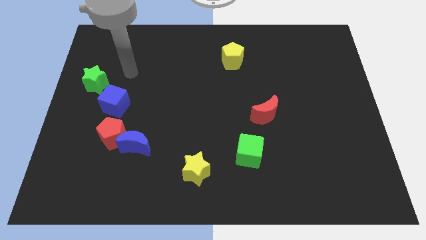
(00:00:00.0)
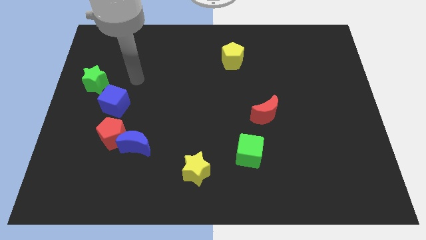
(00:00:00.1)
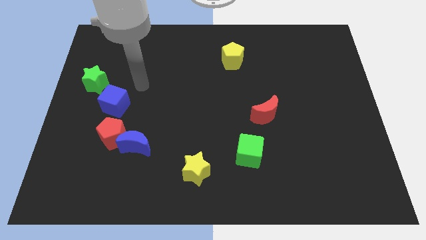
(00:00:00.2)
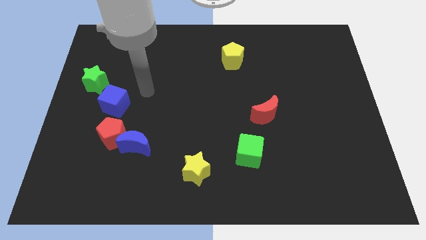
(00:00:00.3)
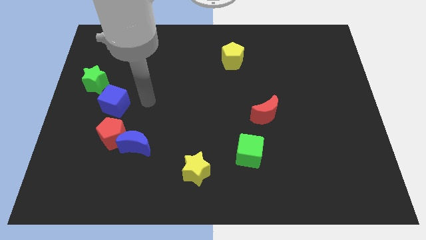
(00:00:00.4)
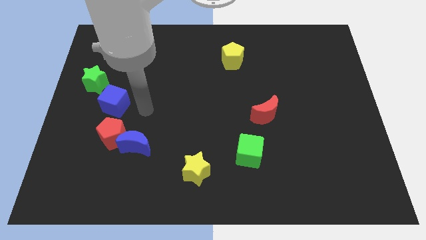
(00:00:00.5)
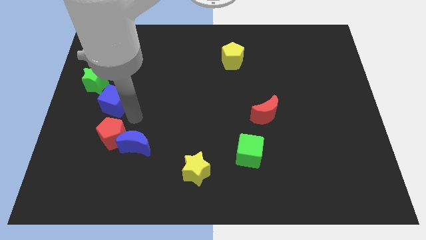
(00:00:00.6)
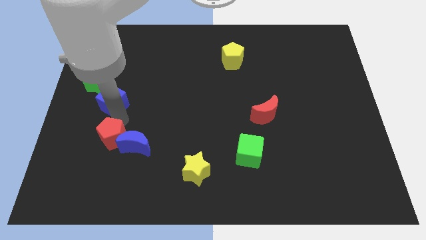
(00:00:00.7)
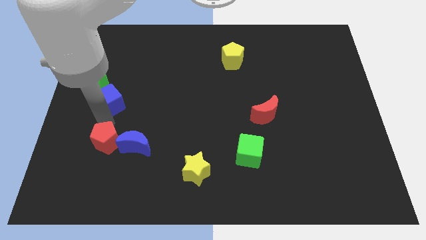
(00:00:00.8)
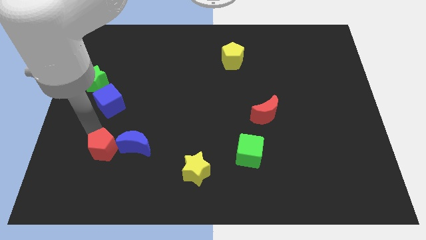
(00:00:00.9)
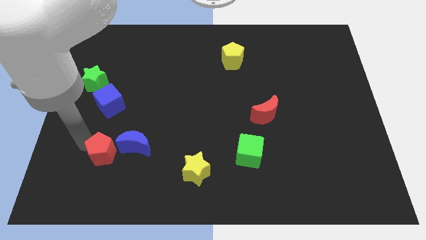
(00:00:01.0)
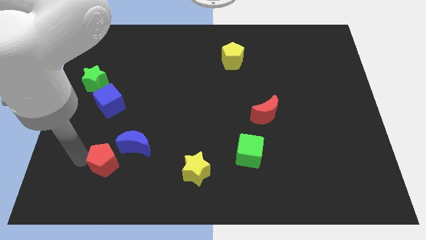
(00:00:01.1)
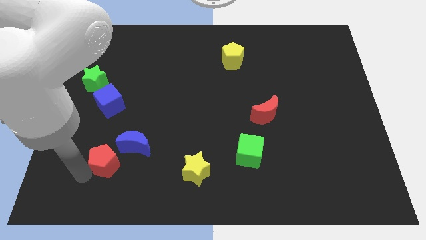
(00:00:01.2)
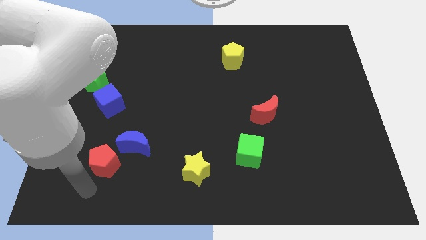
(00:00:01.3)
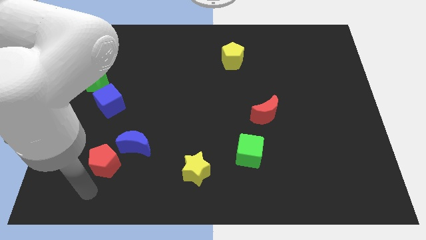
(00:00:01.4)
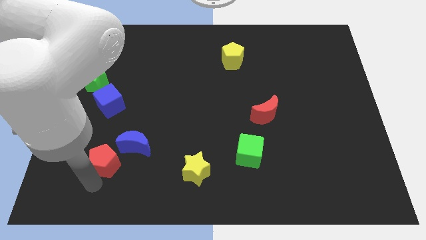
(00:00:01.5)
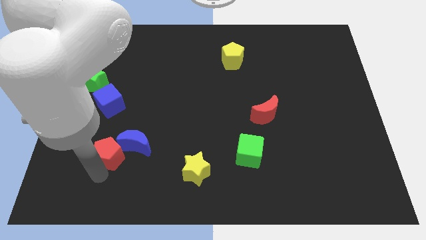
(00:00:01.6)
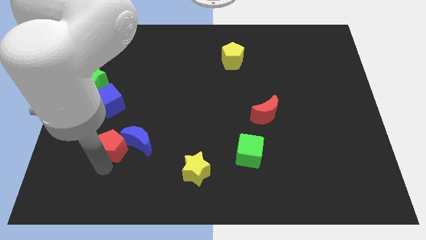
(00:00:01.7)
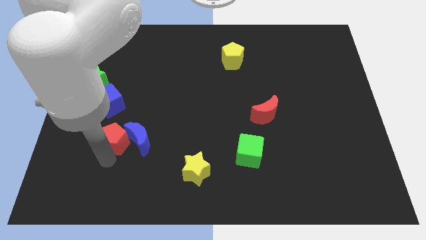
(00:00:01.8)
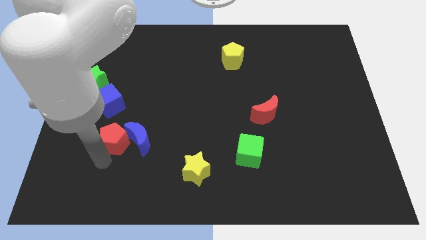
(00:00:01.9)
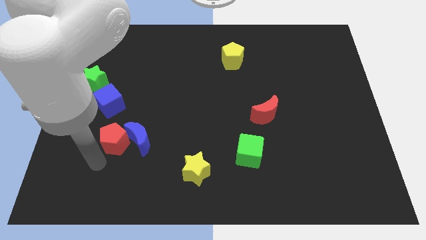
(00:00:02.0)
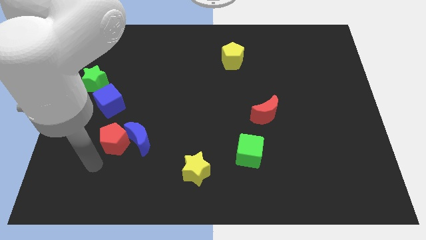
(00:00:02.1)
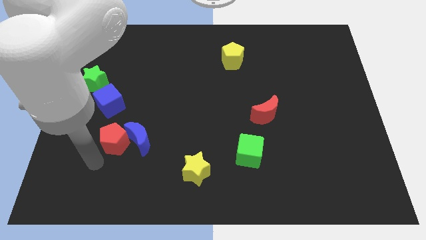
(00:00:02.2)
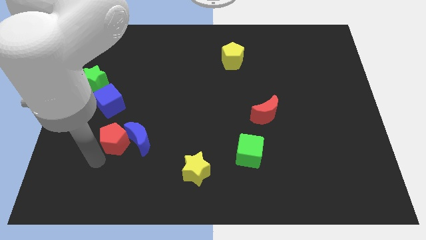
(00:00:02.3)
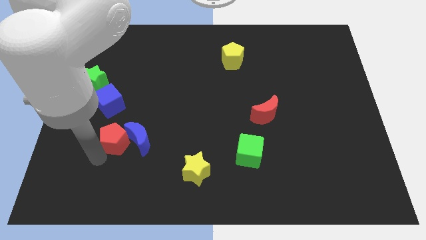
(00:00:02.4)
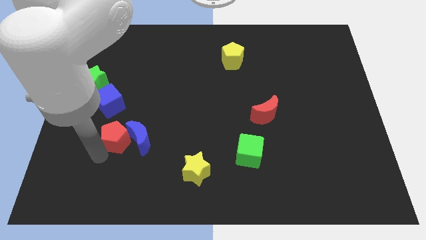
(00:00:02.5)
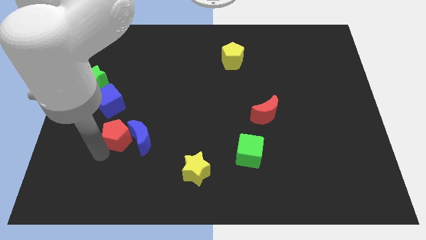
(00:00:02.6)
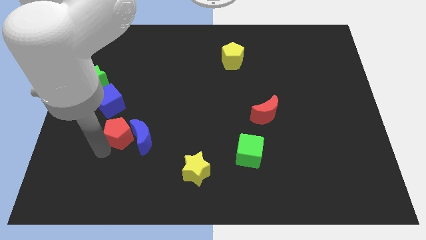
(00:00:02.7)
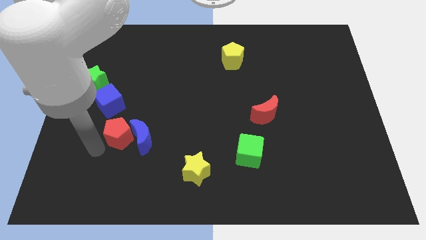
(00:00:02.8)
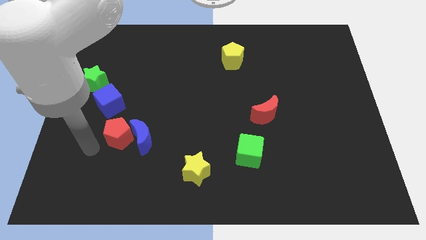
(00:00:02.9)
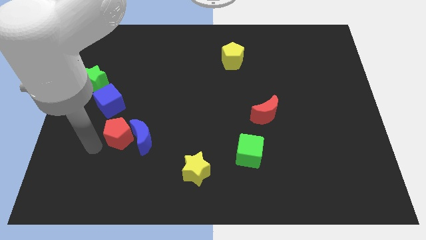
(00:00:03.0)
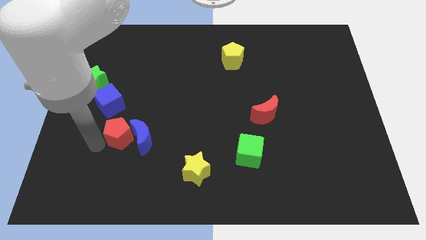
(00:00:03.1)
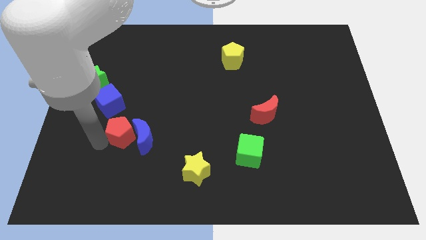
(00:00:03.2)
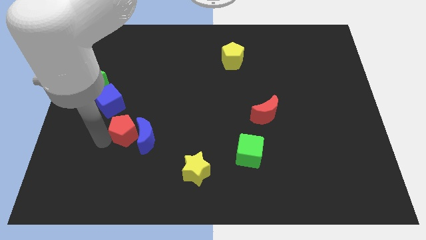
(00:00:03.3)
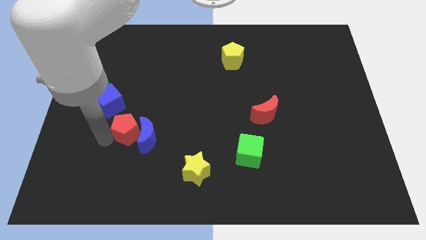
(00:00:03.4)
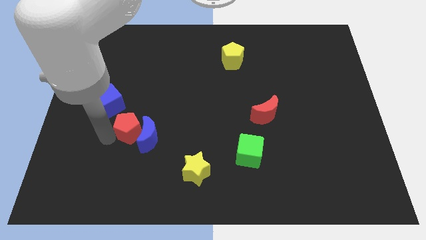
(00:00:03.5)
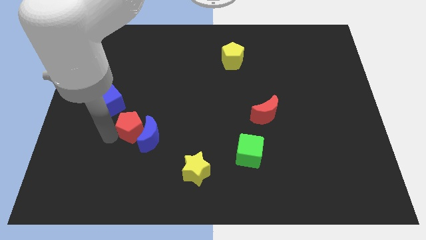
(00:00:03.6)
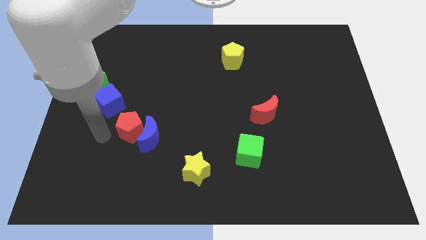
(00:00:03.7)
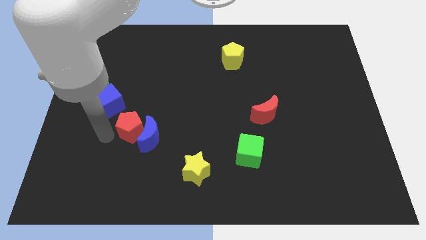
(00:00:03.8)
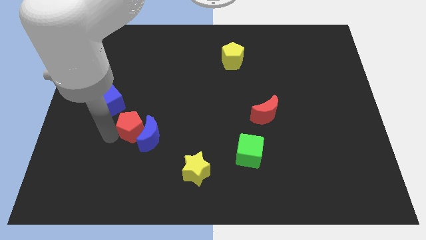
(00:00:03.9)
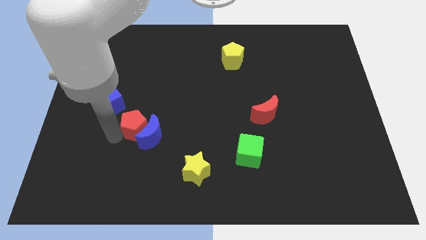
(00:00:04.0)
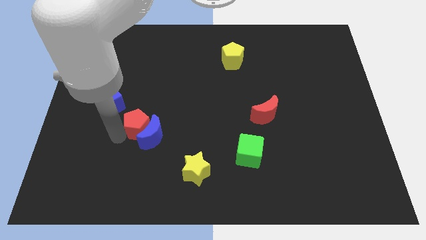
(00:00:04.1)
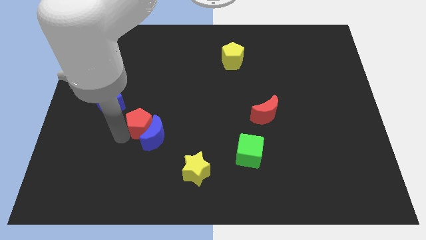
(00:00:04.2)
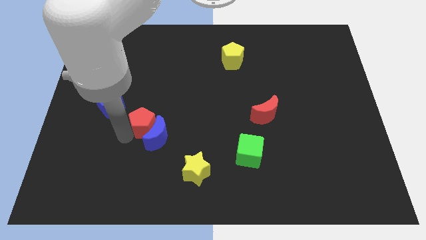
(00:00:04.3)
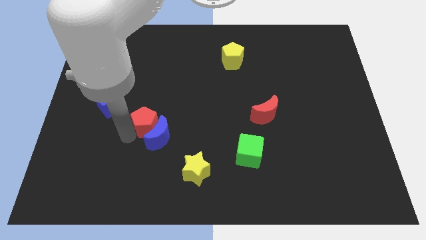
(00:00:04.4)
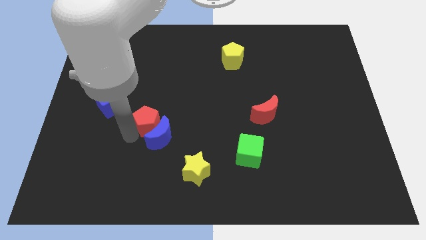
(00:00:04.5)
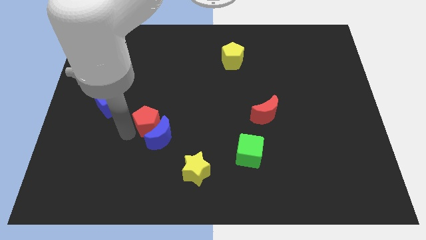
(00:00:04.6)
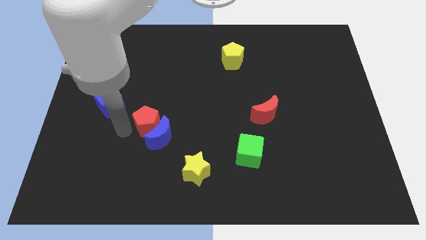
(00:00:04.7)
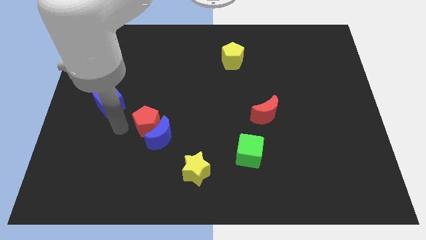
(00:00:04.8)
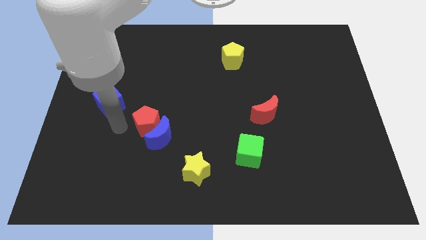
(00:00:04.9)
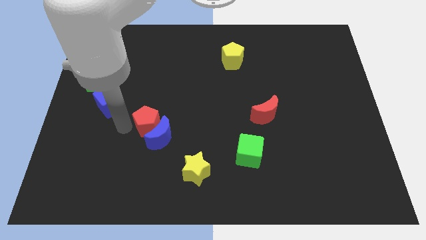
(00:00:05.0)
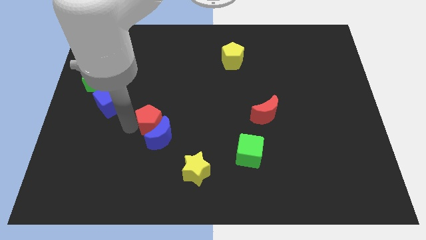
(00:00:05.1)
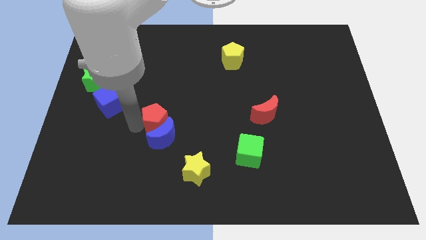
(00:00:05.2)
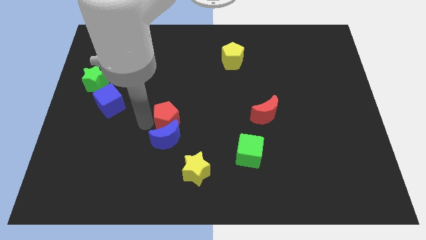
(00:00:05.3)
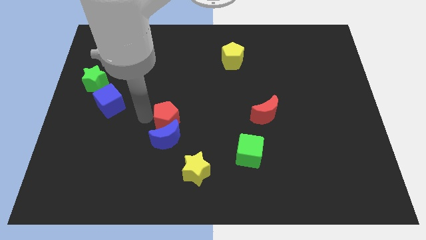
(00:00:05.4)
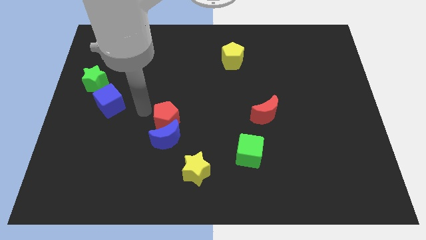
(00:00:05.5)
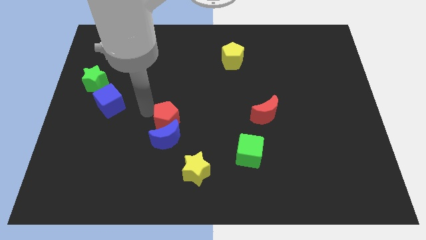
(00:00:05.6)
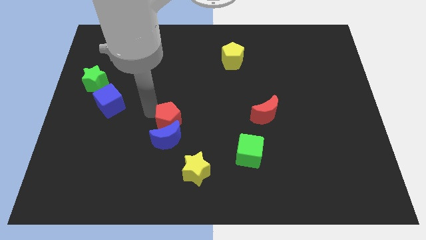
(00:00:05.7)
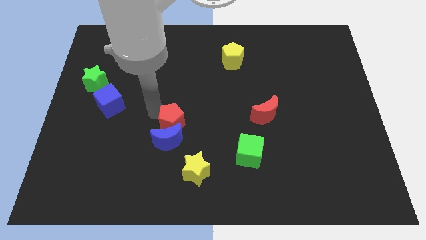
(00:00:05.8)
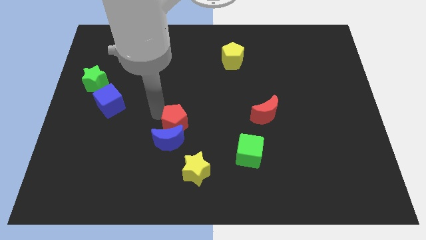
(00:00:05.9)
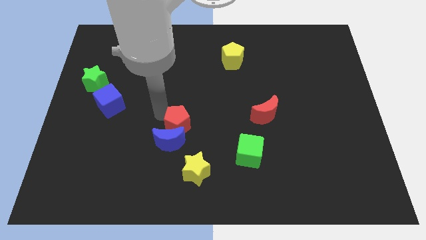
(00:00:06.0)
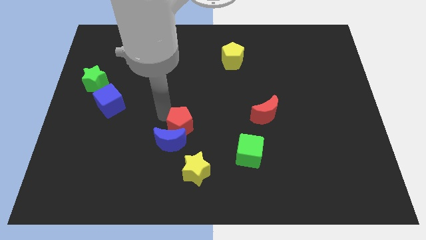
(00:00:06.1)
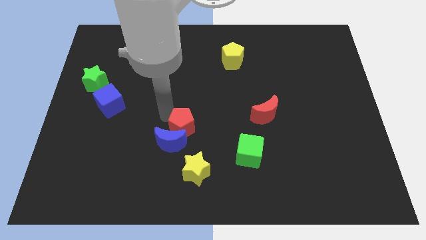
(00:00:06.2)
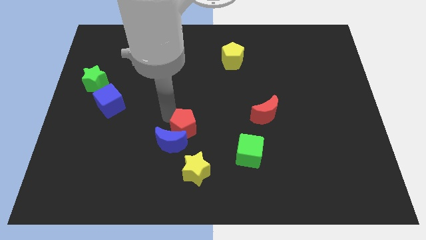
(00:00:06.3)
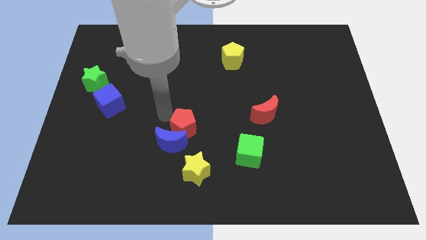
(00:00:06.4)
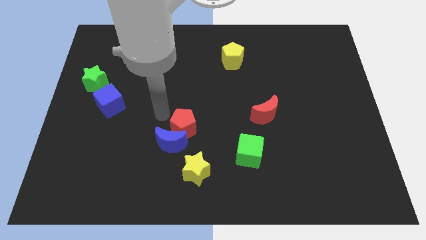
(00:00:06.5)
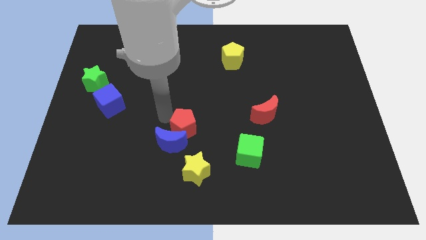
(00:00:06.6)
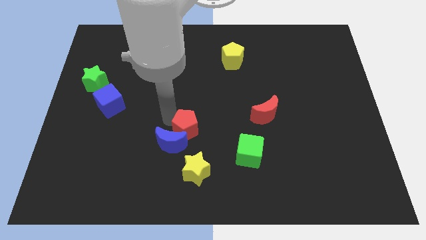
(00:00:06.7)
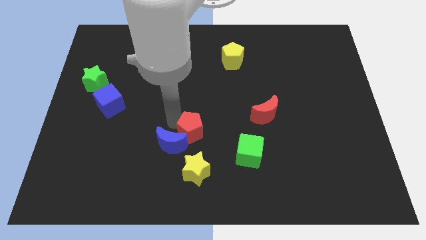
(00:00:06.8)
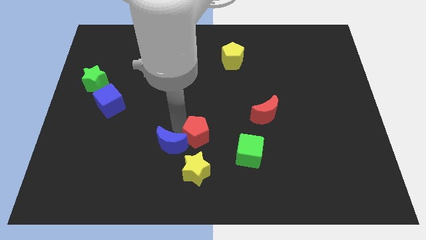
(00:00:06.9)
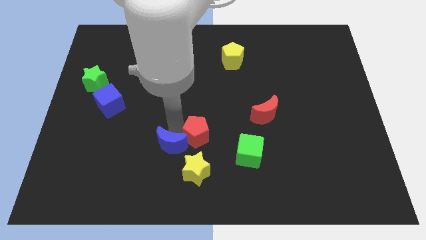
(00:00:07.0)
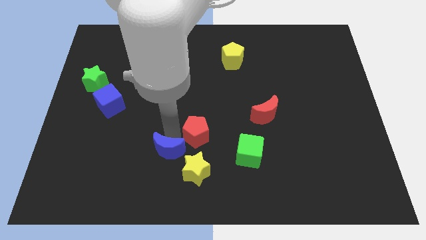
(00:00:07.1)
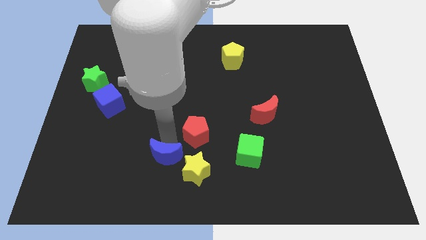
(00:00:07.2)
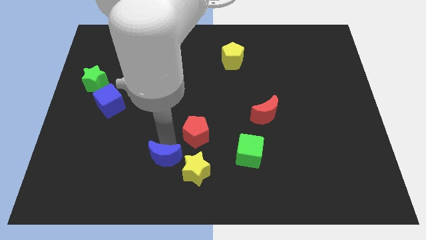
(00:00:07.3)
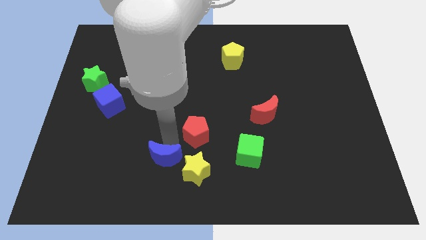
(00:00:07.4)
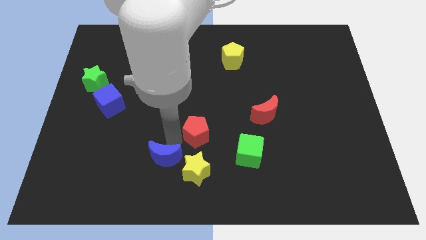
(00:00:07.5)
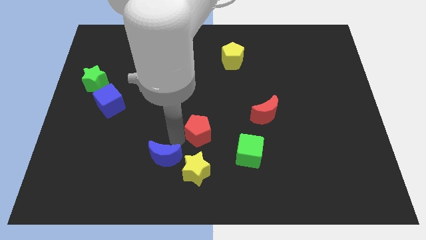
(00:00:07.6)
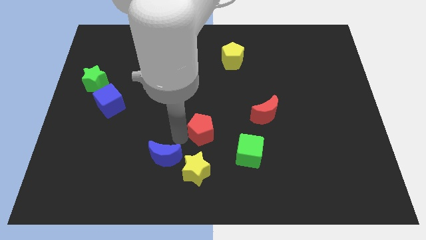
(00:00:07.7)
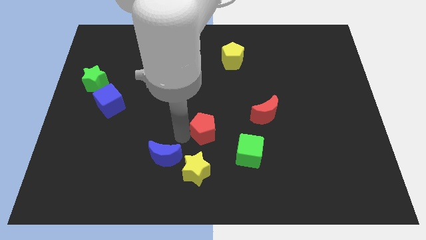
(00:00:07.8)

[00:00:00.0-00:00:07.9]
move the red pentagon right

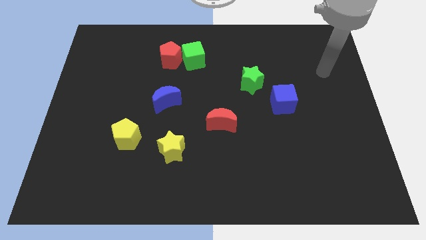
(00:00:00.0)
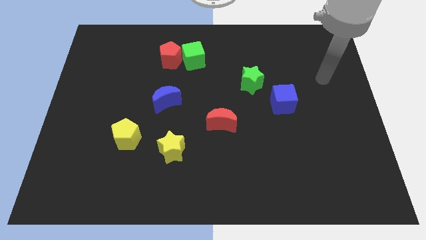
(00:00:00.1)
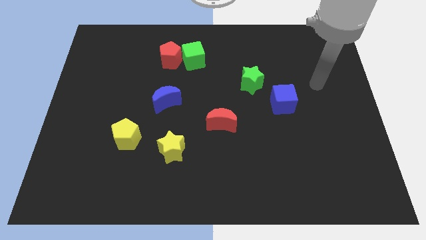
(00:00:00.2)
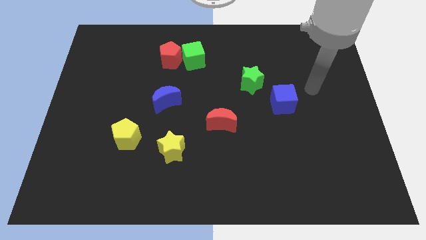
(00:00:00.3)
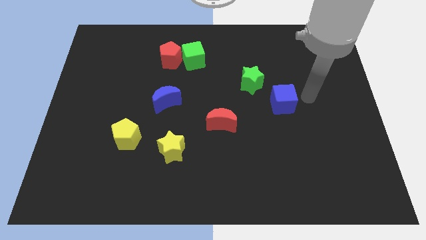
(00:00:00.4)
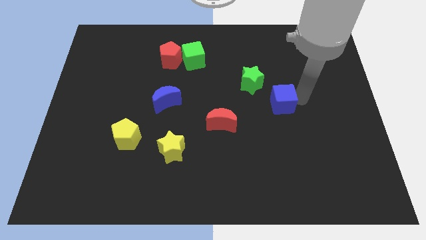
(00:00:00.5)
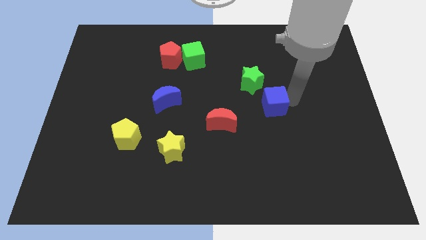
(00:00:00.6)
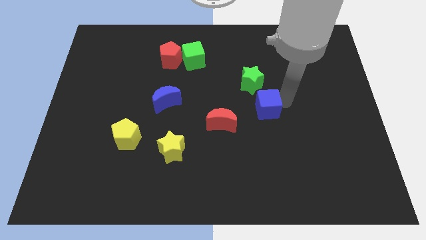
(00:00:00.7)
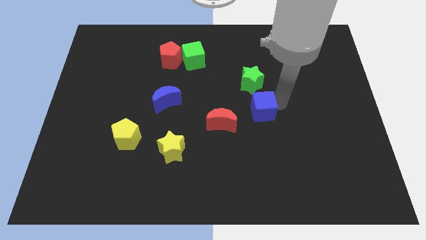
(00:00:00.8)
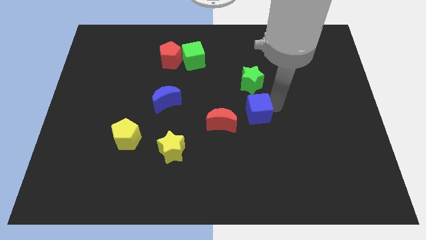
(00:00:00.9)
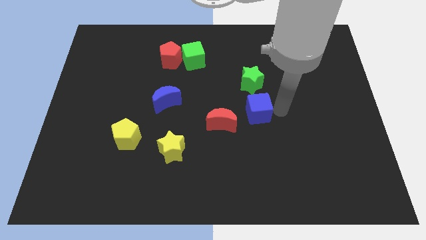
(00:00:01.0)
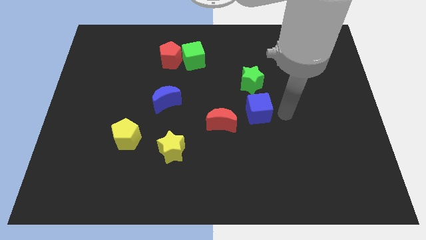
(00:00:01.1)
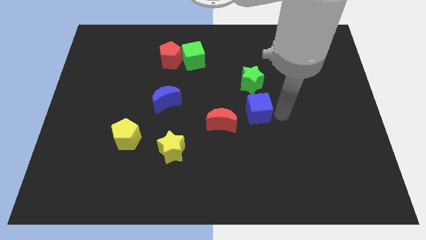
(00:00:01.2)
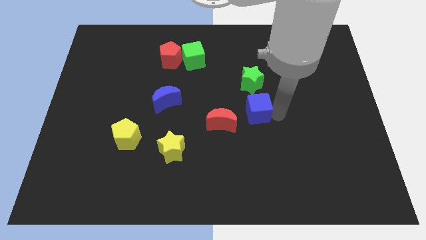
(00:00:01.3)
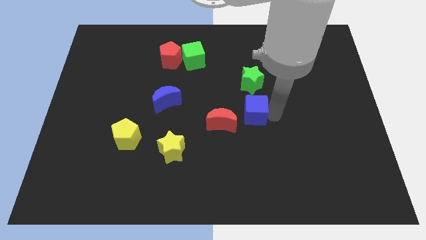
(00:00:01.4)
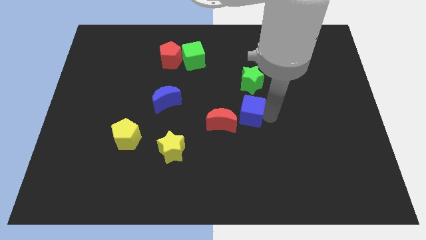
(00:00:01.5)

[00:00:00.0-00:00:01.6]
slightly slide the blue cube left
